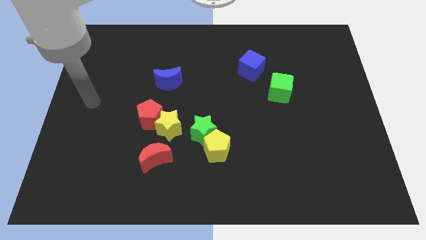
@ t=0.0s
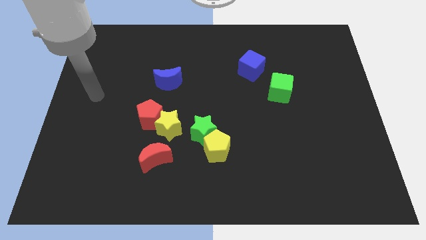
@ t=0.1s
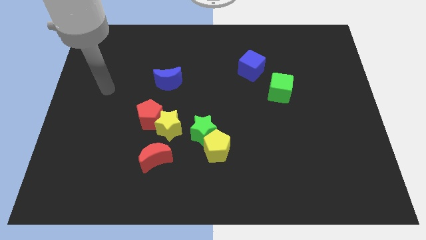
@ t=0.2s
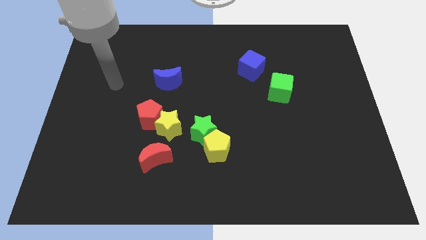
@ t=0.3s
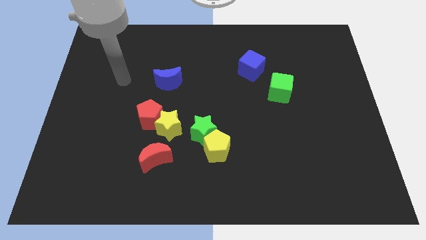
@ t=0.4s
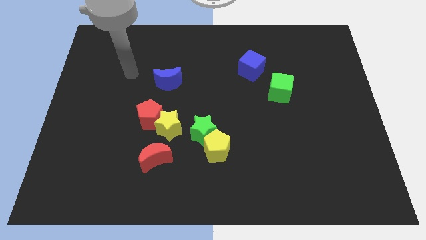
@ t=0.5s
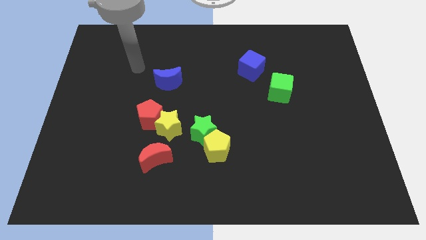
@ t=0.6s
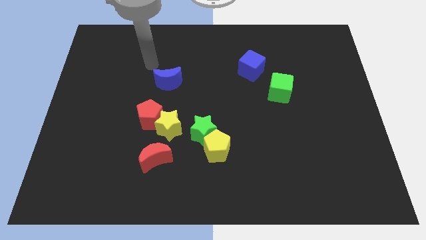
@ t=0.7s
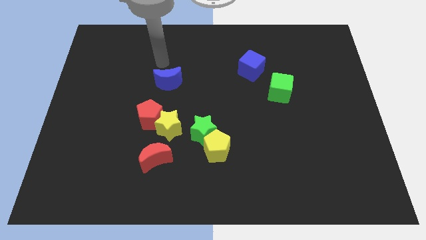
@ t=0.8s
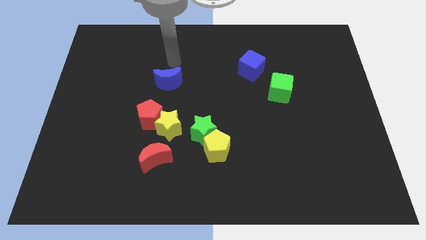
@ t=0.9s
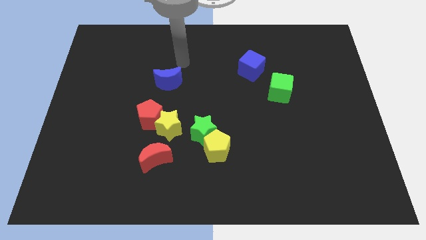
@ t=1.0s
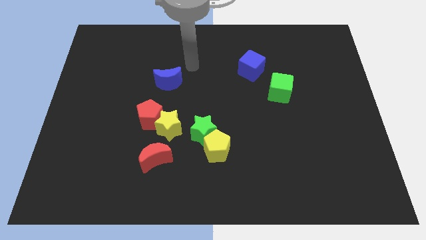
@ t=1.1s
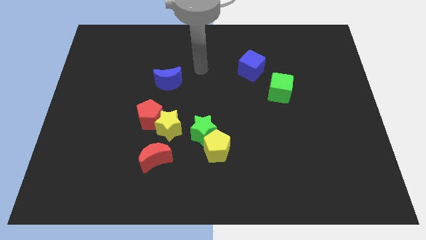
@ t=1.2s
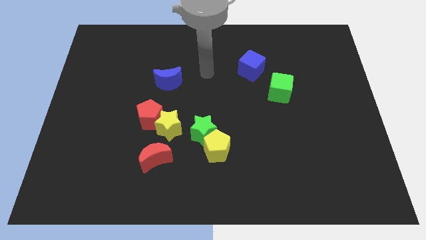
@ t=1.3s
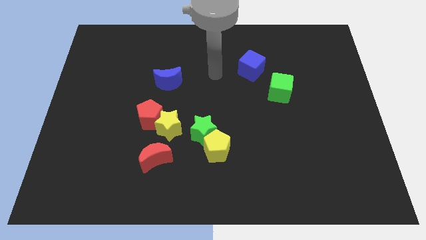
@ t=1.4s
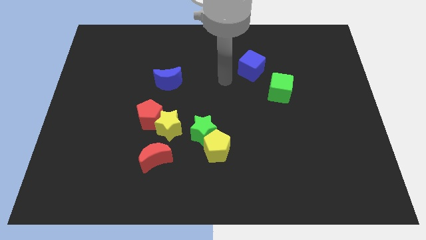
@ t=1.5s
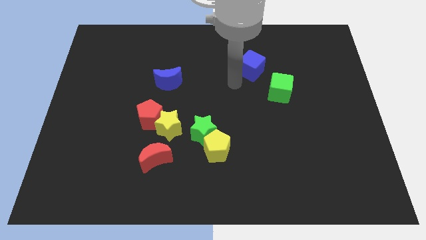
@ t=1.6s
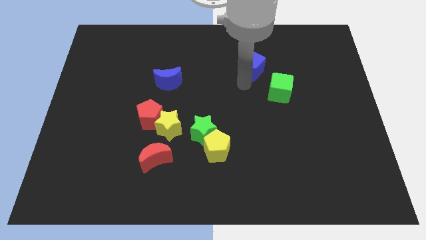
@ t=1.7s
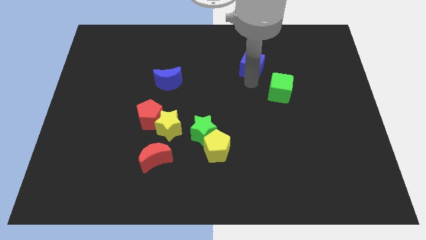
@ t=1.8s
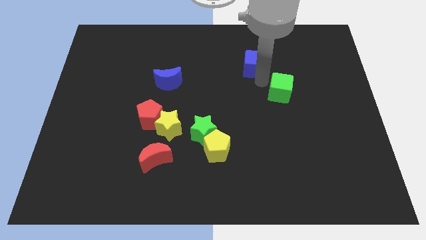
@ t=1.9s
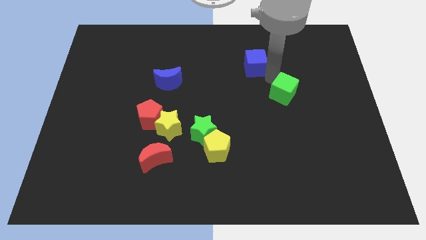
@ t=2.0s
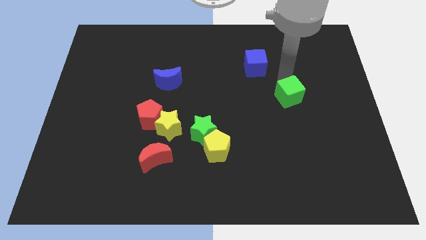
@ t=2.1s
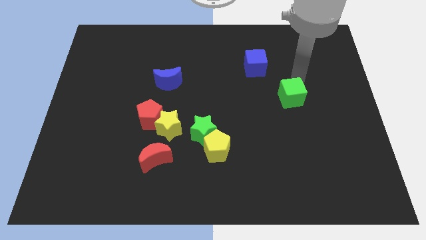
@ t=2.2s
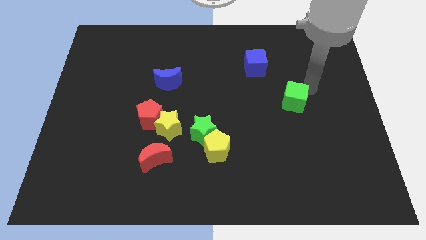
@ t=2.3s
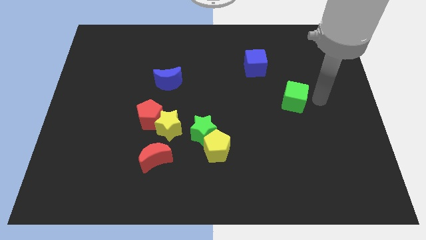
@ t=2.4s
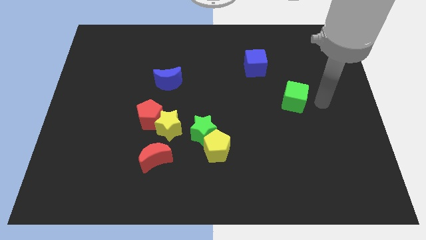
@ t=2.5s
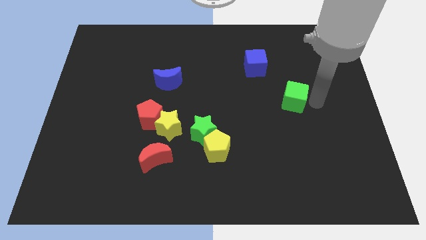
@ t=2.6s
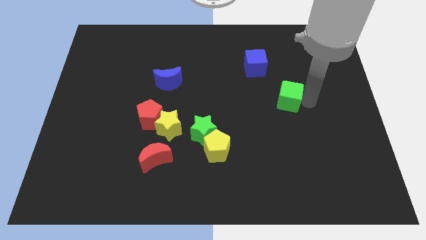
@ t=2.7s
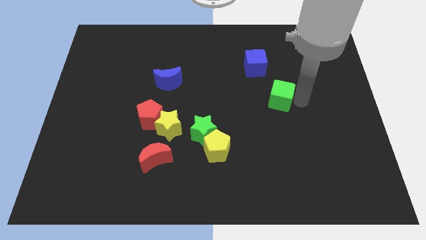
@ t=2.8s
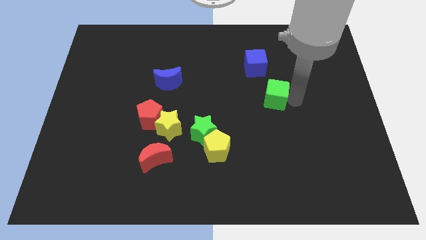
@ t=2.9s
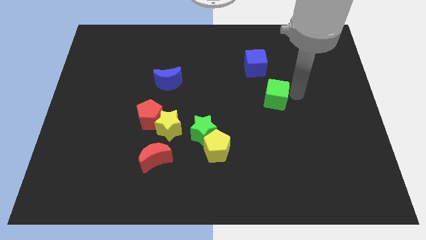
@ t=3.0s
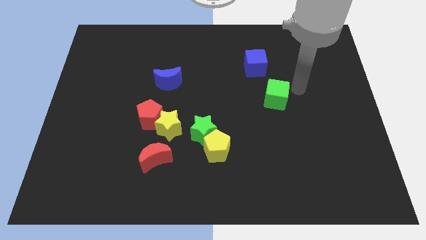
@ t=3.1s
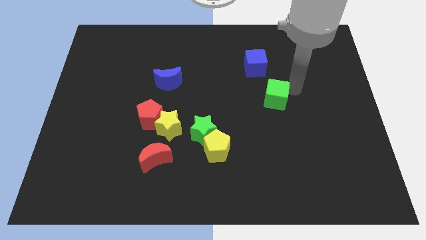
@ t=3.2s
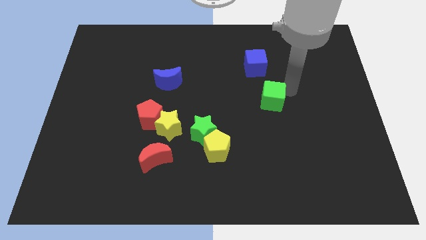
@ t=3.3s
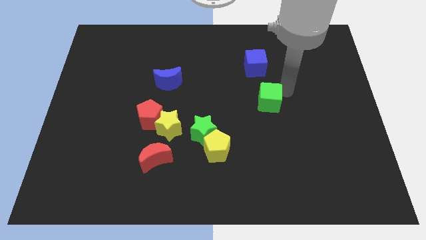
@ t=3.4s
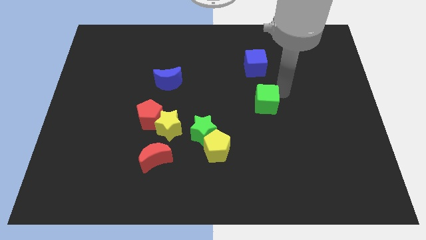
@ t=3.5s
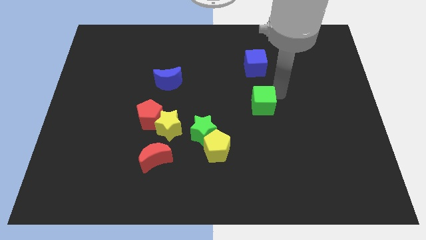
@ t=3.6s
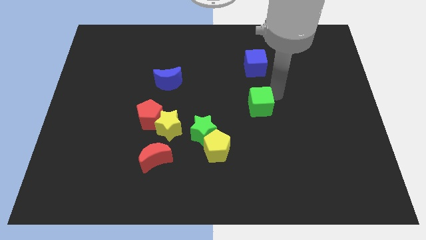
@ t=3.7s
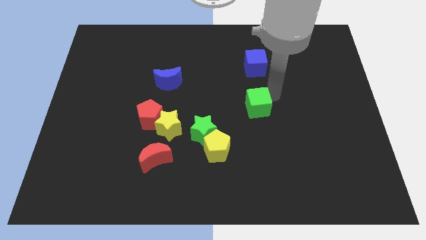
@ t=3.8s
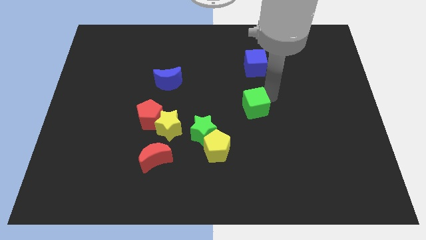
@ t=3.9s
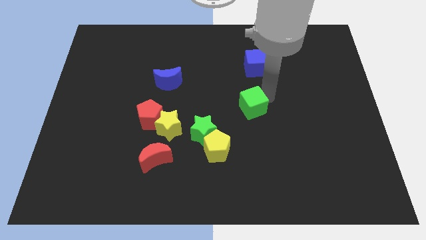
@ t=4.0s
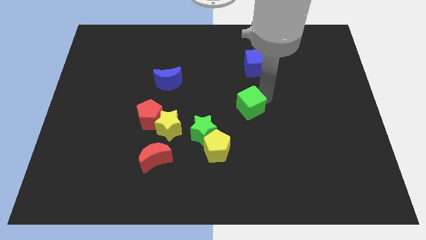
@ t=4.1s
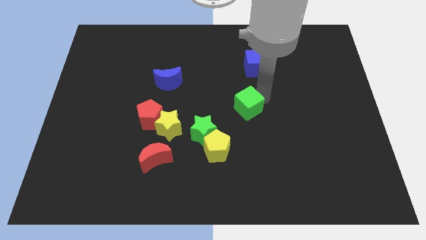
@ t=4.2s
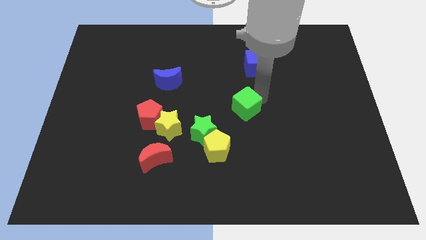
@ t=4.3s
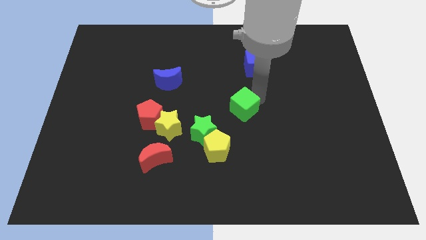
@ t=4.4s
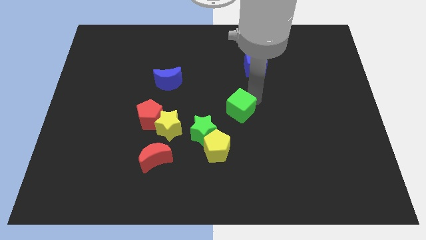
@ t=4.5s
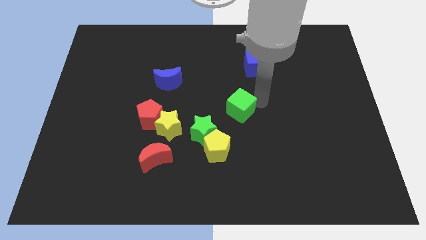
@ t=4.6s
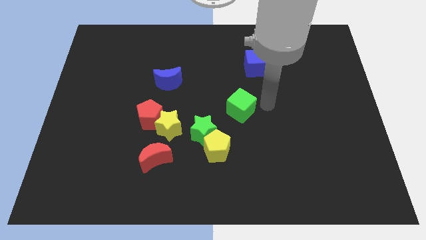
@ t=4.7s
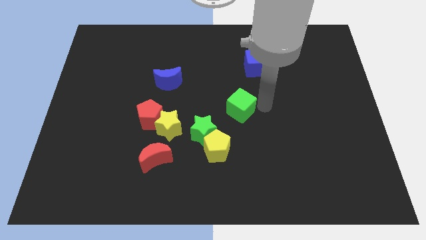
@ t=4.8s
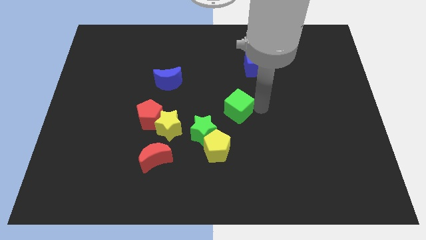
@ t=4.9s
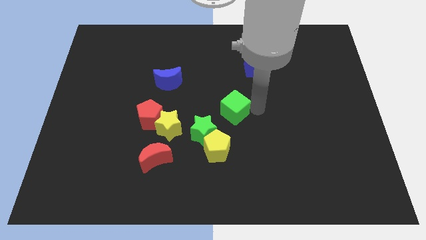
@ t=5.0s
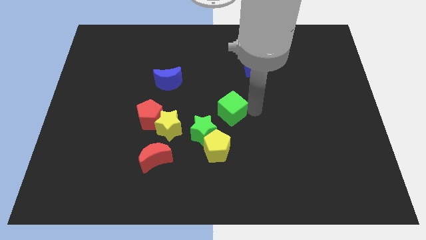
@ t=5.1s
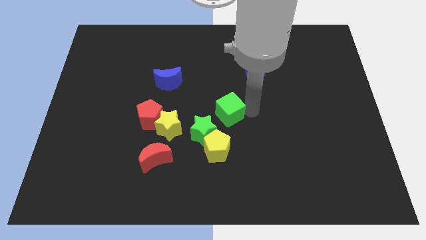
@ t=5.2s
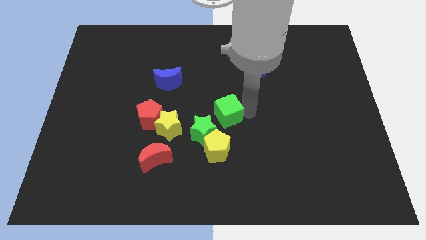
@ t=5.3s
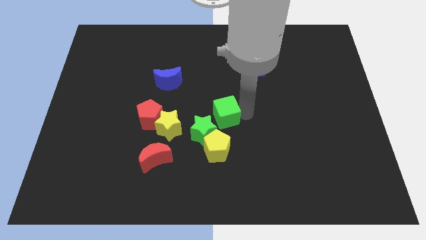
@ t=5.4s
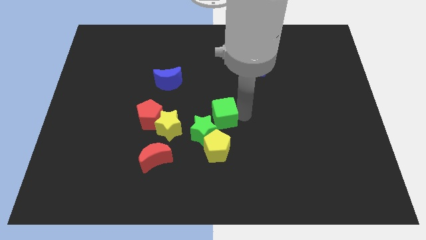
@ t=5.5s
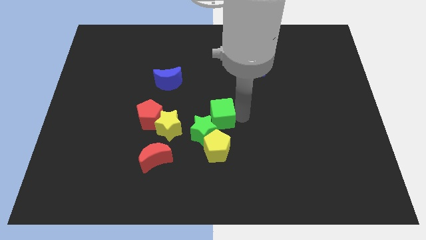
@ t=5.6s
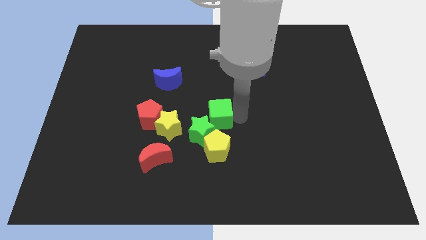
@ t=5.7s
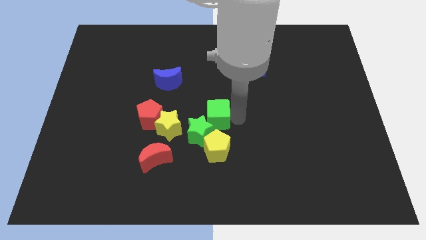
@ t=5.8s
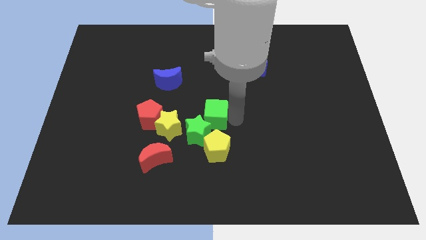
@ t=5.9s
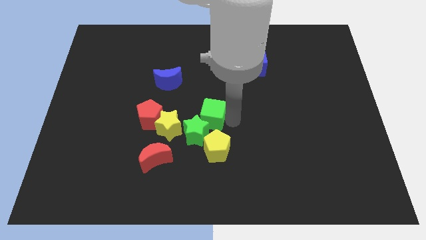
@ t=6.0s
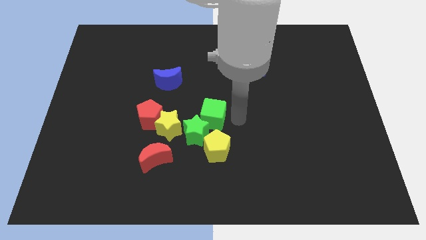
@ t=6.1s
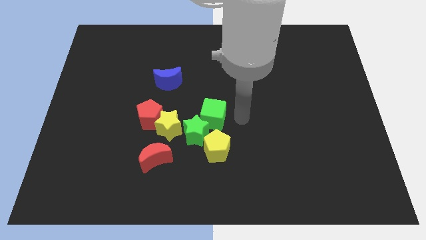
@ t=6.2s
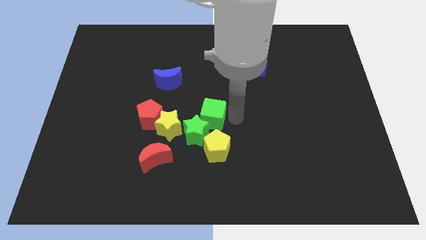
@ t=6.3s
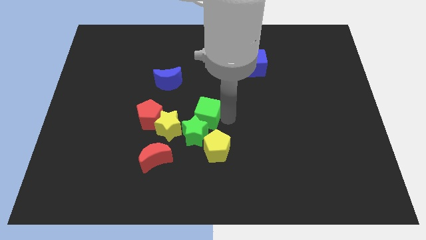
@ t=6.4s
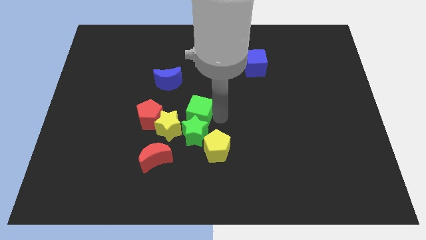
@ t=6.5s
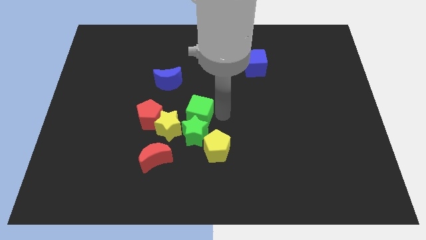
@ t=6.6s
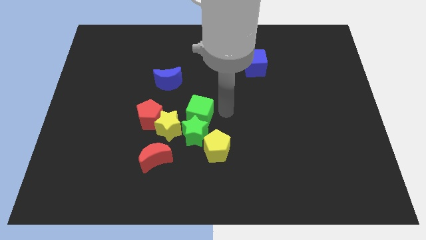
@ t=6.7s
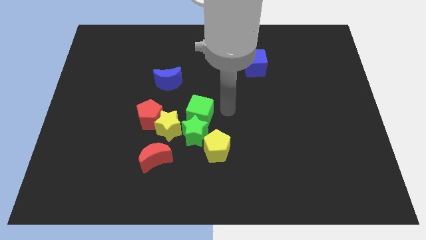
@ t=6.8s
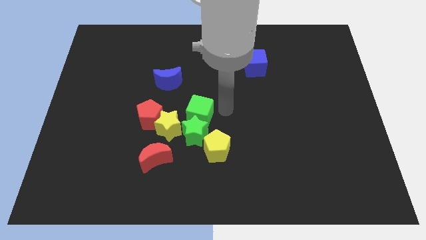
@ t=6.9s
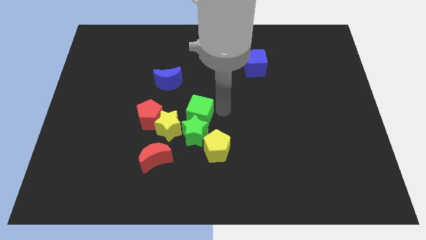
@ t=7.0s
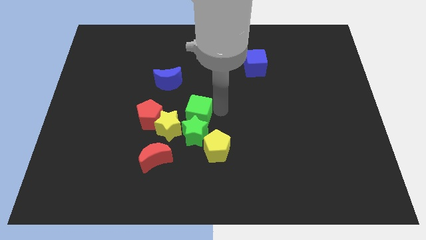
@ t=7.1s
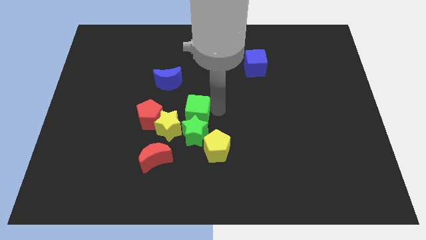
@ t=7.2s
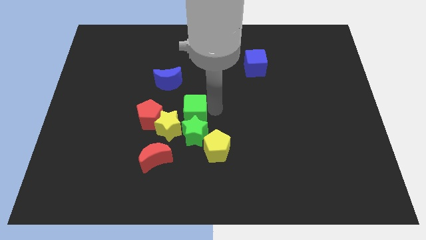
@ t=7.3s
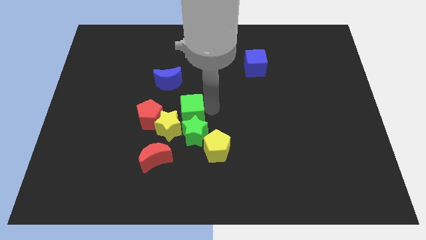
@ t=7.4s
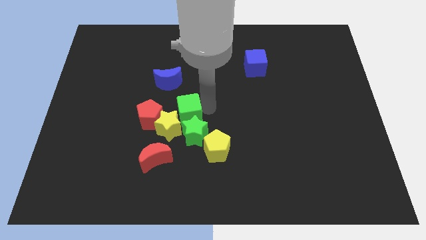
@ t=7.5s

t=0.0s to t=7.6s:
move the green cube to the yellow star
